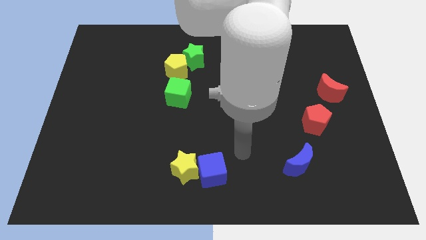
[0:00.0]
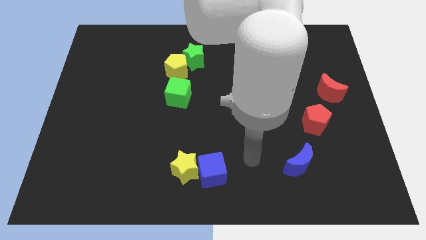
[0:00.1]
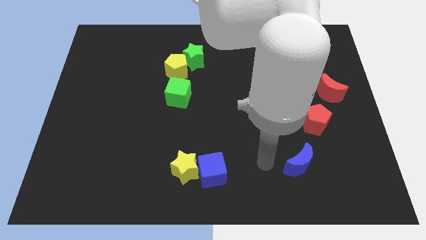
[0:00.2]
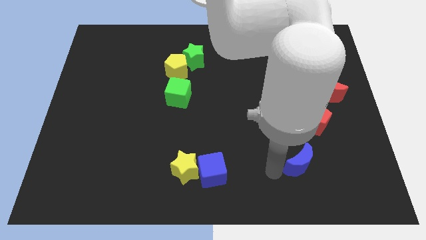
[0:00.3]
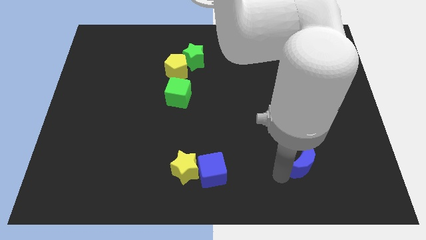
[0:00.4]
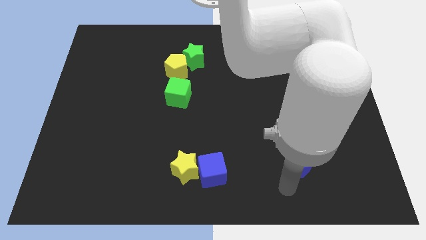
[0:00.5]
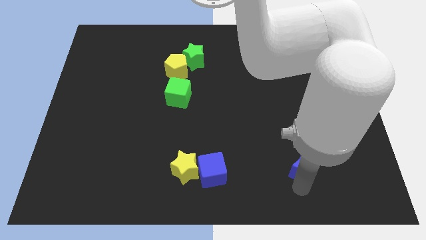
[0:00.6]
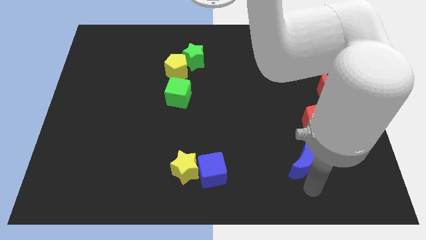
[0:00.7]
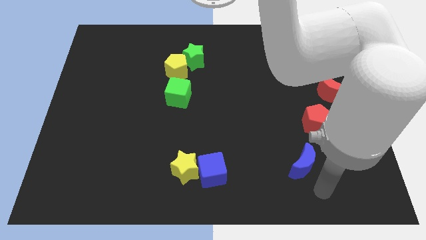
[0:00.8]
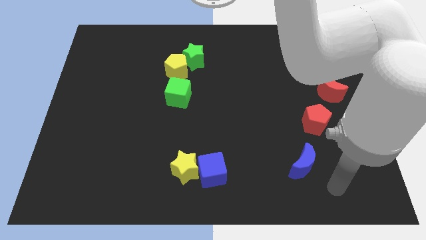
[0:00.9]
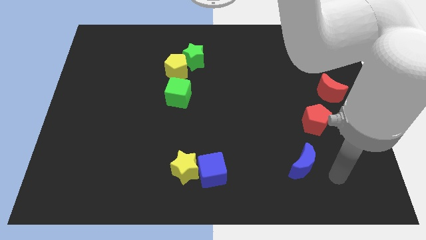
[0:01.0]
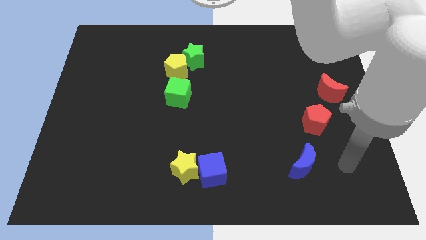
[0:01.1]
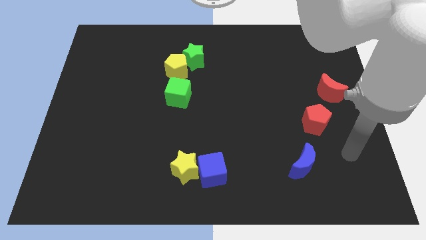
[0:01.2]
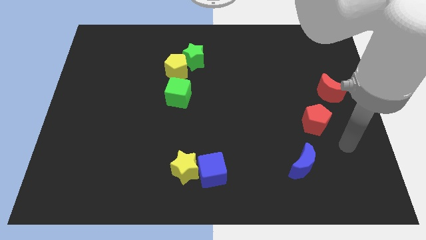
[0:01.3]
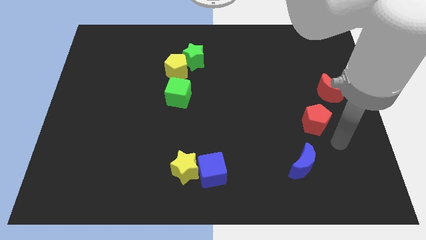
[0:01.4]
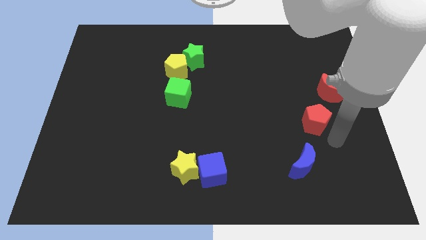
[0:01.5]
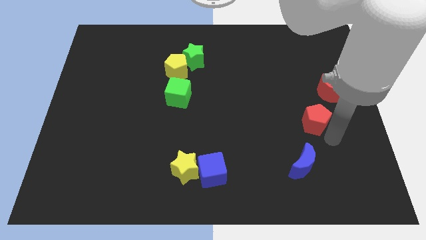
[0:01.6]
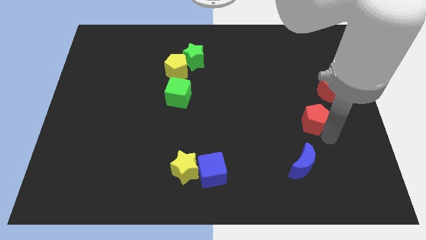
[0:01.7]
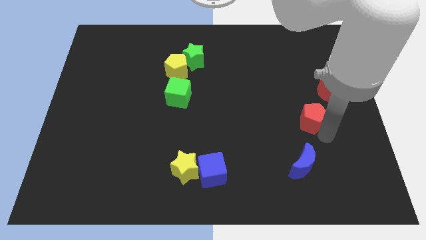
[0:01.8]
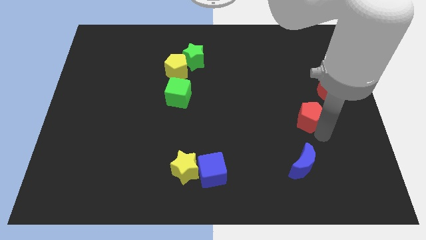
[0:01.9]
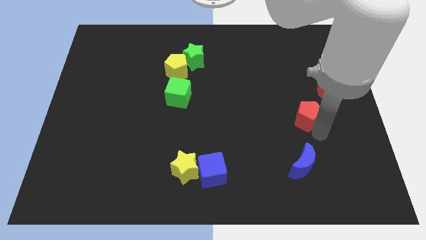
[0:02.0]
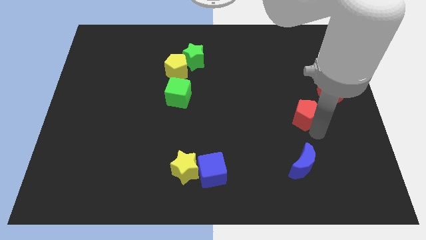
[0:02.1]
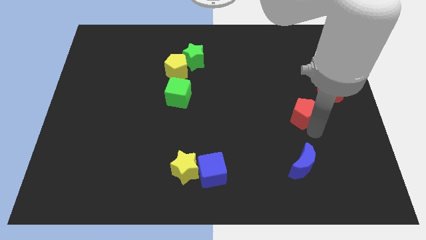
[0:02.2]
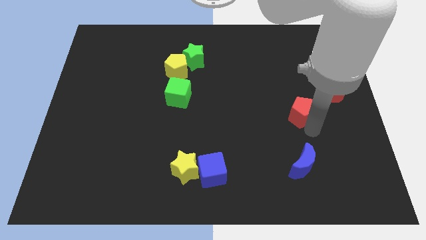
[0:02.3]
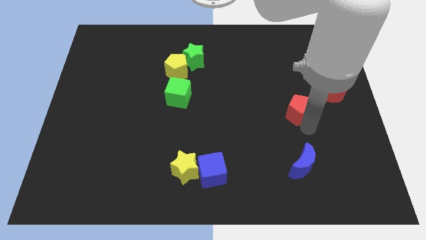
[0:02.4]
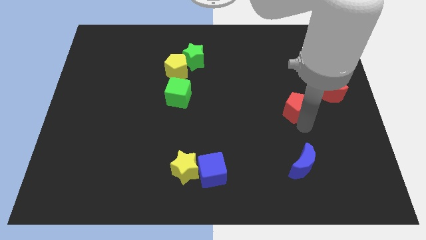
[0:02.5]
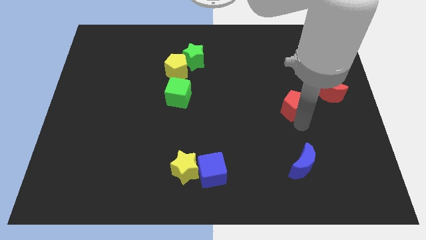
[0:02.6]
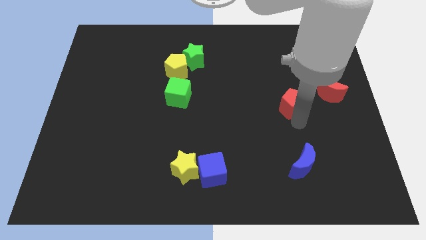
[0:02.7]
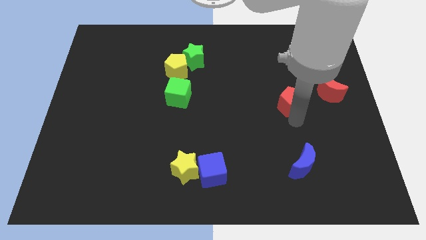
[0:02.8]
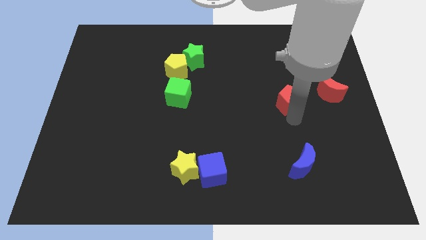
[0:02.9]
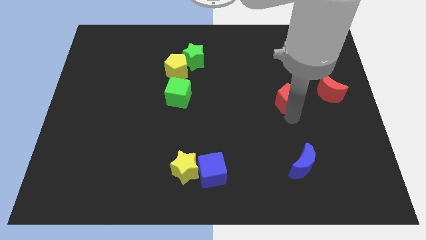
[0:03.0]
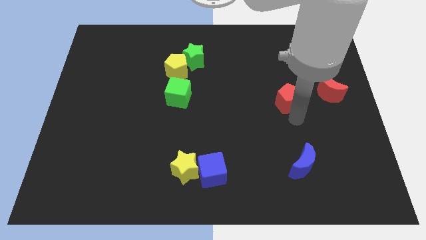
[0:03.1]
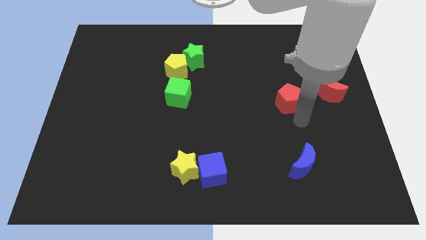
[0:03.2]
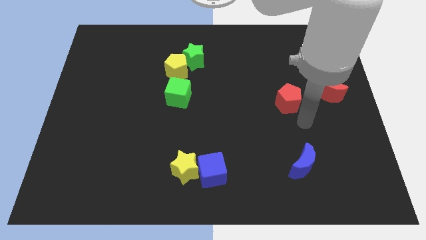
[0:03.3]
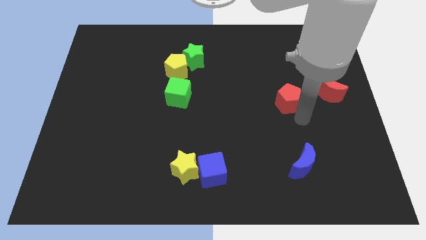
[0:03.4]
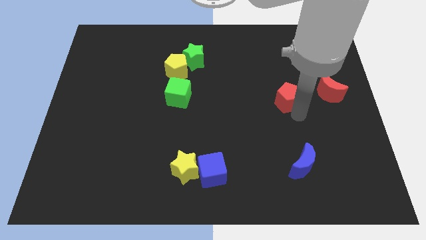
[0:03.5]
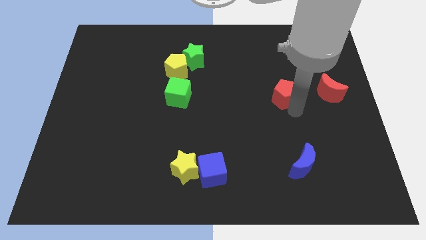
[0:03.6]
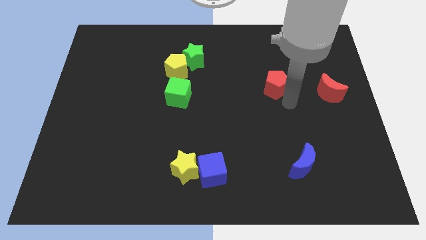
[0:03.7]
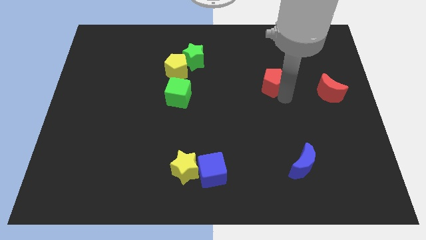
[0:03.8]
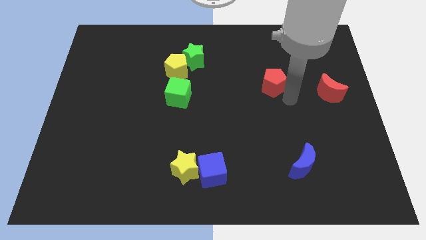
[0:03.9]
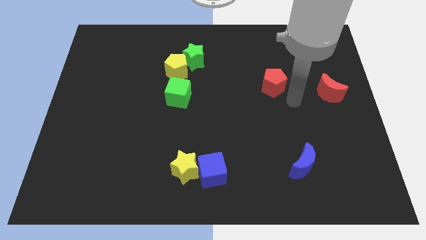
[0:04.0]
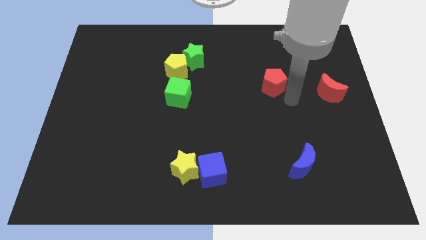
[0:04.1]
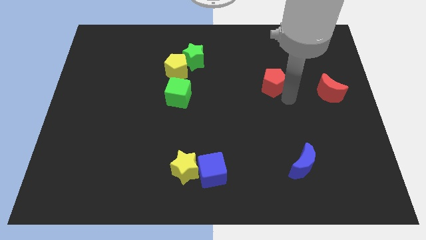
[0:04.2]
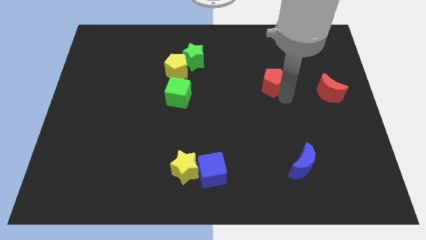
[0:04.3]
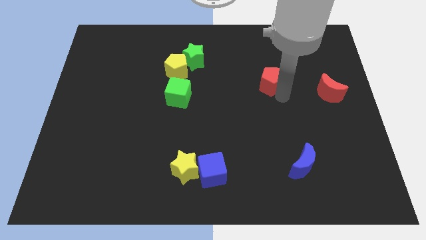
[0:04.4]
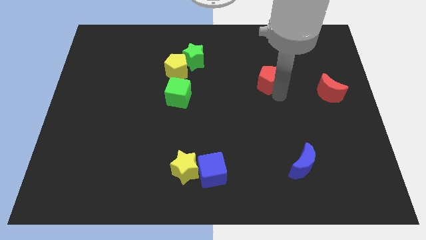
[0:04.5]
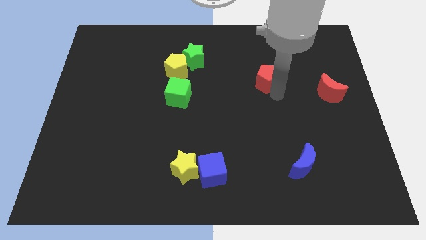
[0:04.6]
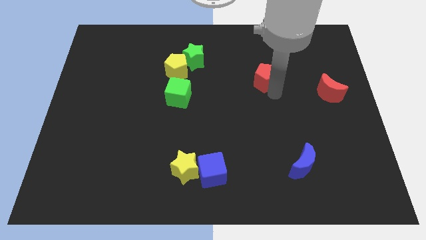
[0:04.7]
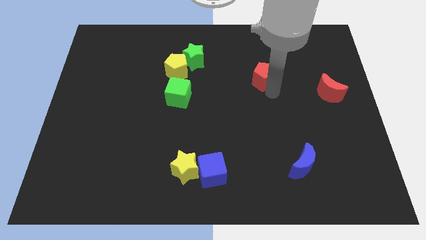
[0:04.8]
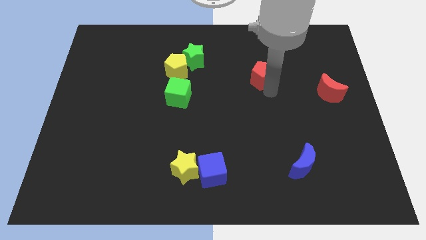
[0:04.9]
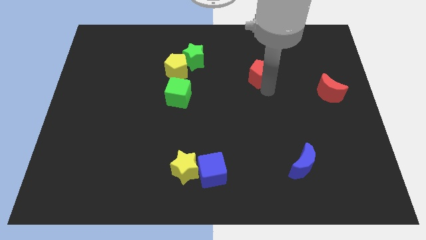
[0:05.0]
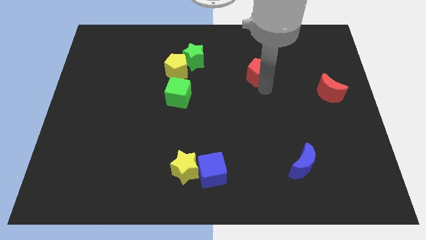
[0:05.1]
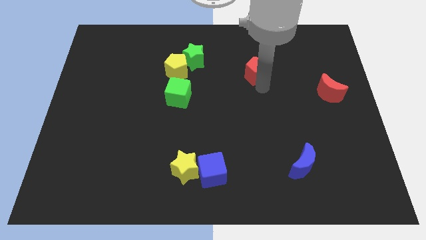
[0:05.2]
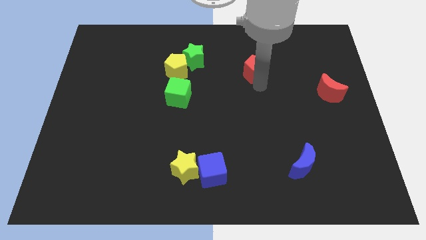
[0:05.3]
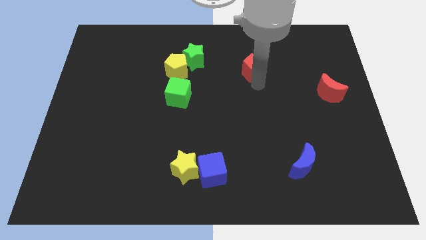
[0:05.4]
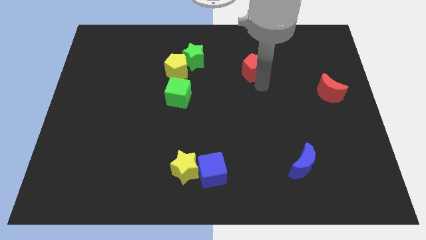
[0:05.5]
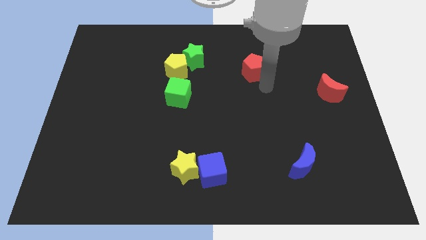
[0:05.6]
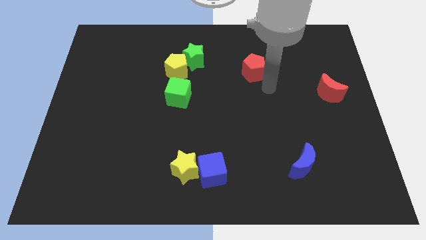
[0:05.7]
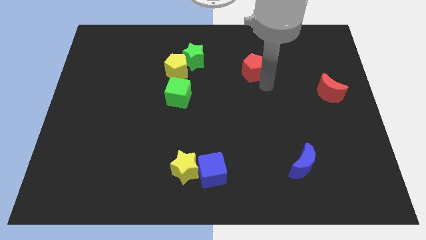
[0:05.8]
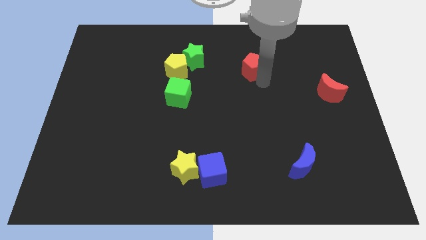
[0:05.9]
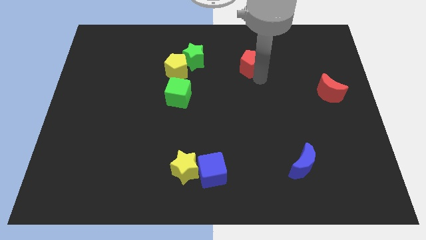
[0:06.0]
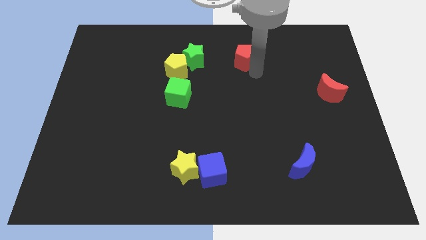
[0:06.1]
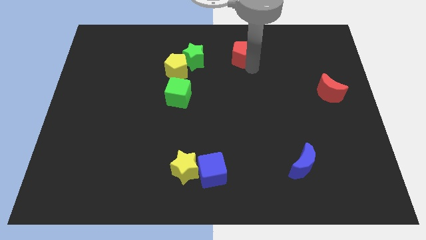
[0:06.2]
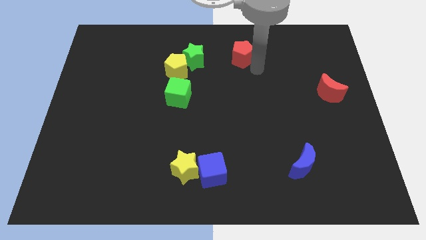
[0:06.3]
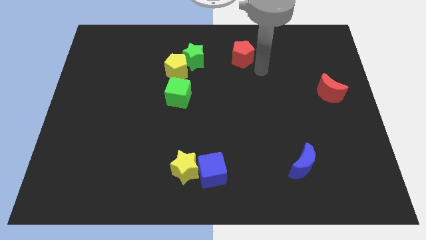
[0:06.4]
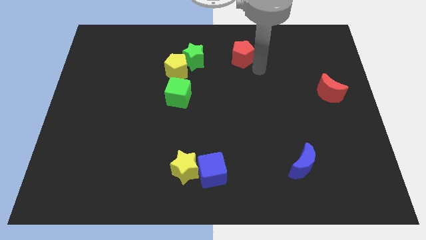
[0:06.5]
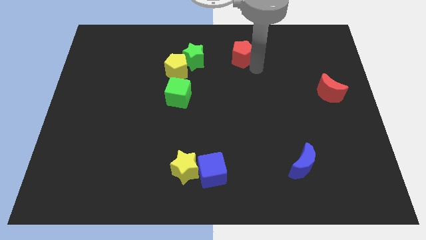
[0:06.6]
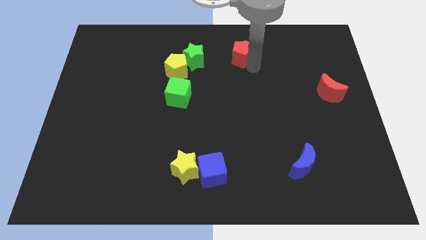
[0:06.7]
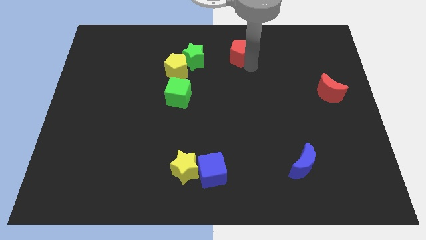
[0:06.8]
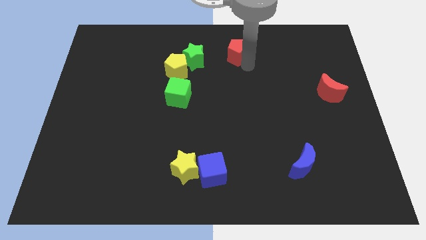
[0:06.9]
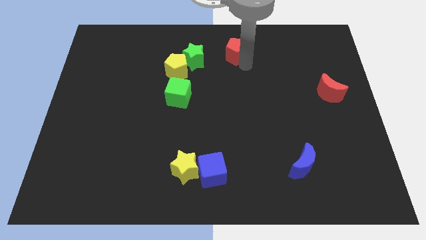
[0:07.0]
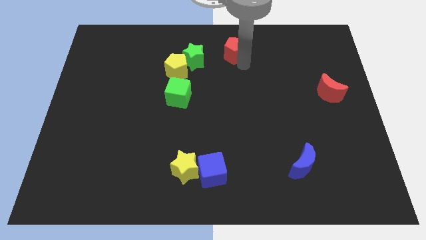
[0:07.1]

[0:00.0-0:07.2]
push the red pentagon to the top side
